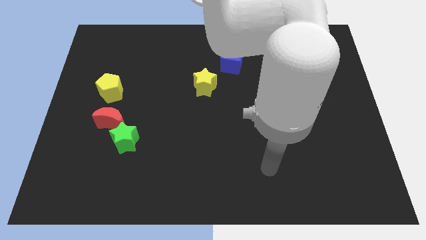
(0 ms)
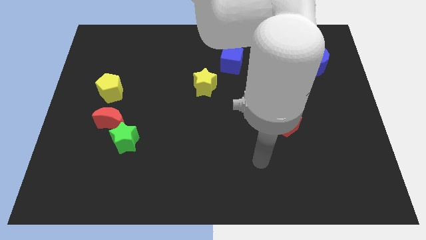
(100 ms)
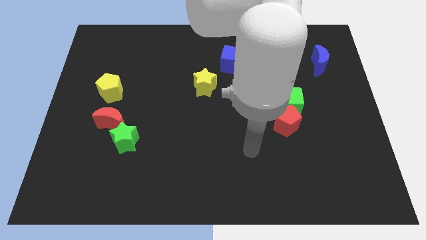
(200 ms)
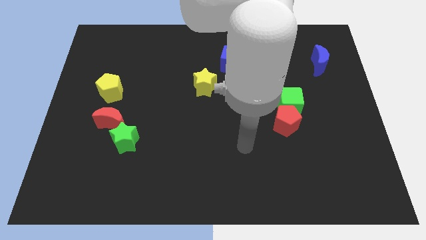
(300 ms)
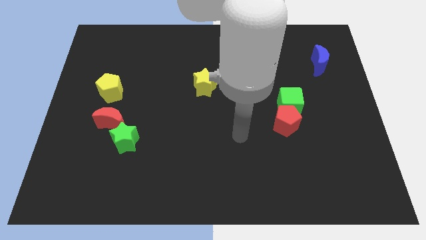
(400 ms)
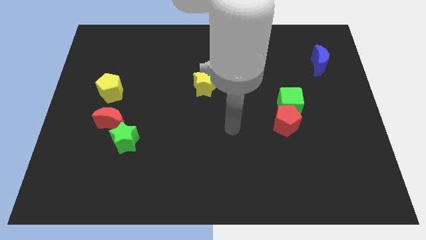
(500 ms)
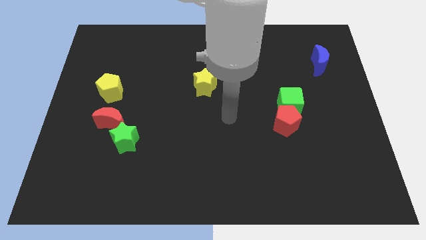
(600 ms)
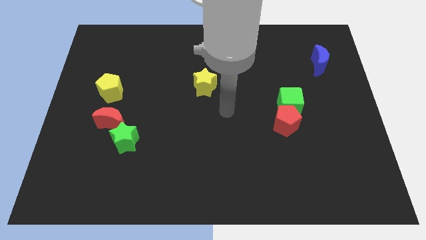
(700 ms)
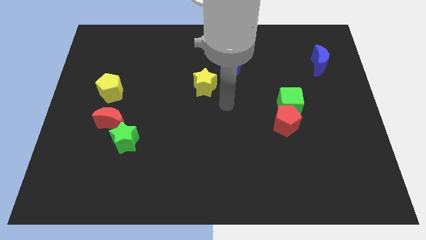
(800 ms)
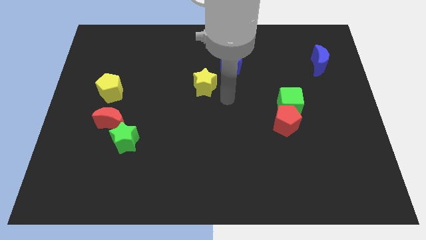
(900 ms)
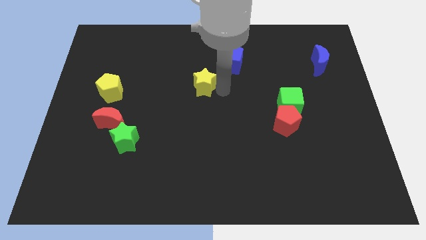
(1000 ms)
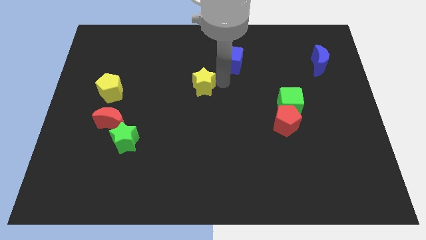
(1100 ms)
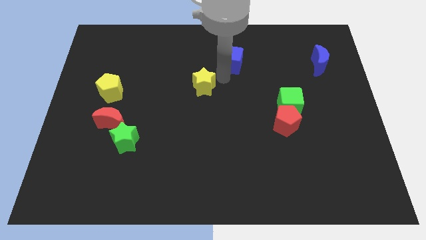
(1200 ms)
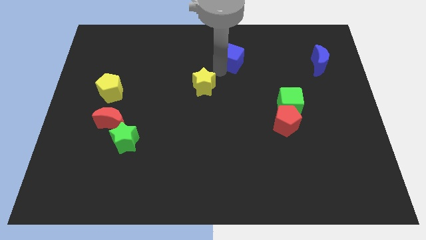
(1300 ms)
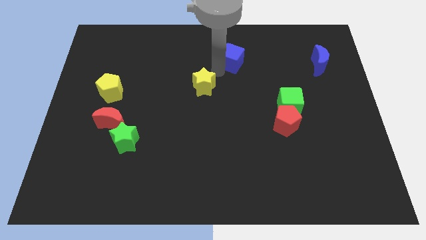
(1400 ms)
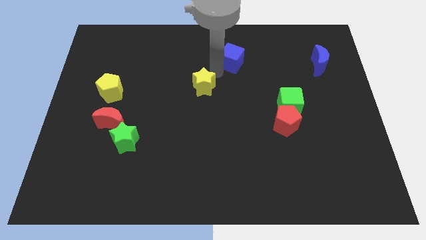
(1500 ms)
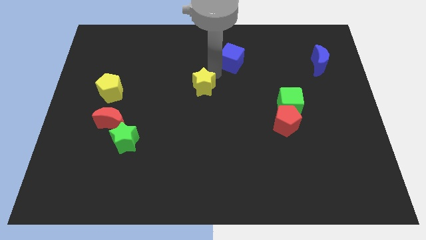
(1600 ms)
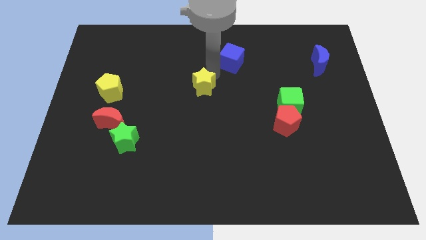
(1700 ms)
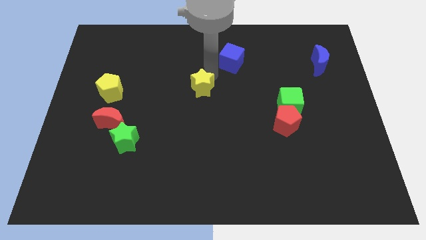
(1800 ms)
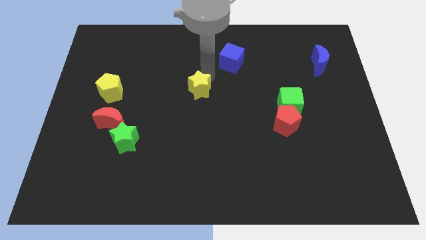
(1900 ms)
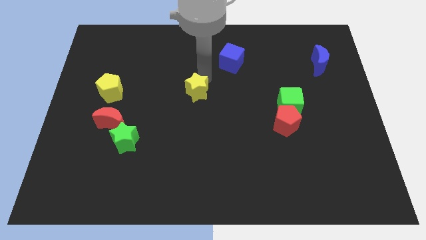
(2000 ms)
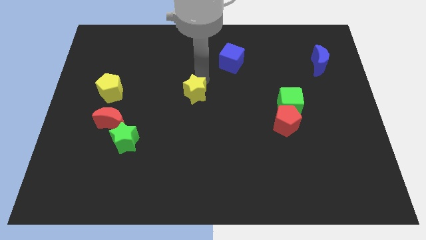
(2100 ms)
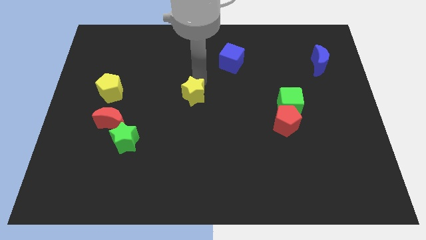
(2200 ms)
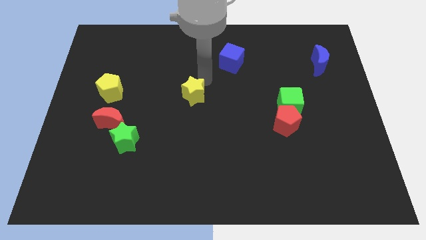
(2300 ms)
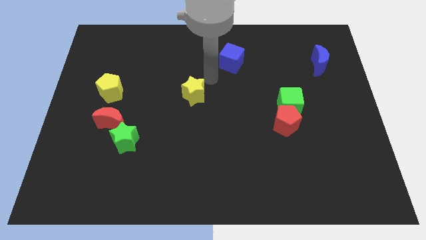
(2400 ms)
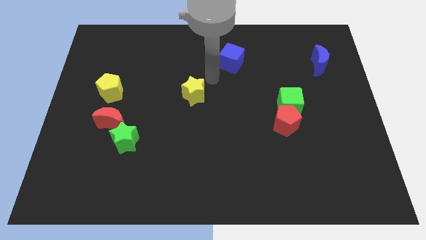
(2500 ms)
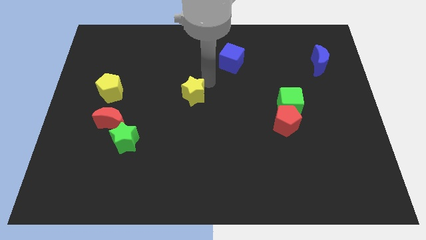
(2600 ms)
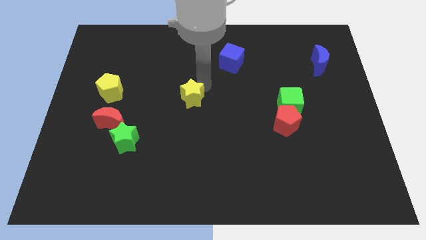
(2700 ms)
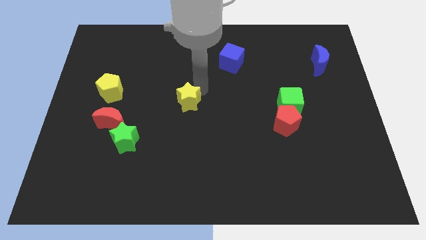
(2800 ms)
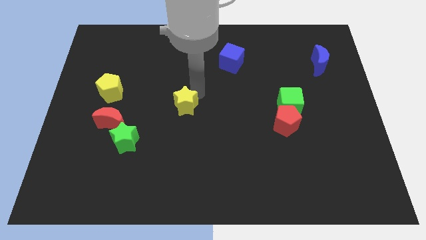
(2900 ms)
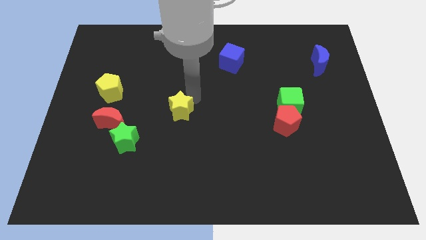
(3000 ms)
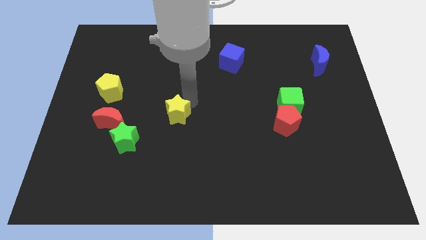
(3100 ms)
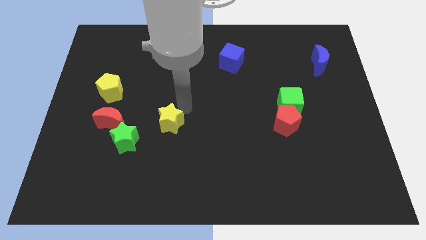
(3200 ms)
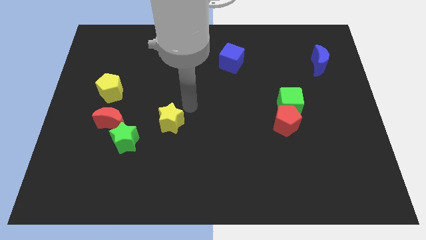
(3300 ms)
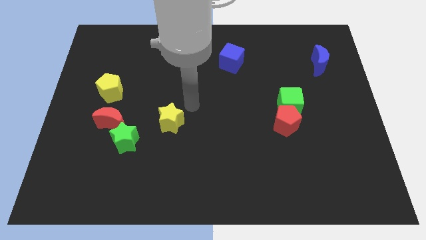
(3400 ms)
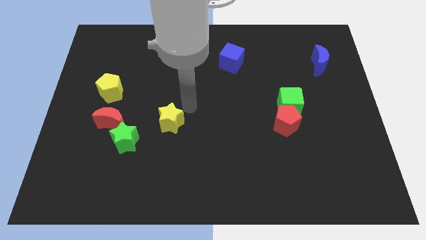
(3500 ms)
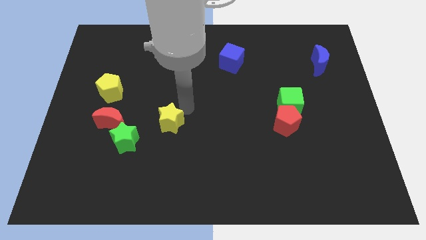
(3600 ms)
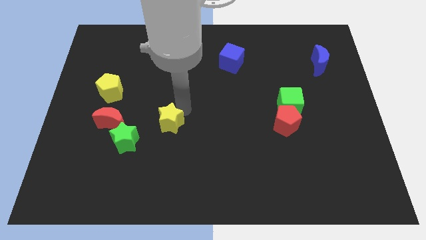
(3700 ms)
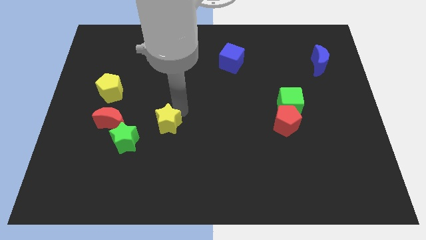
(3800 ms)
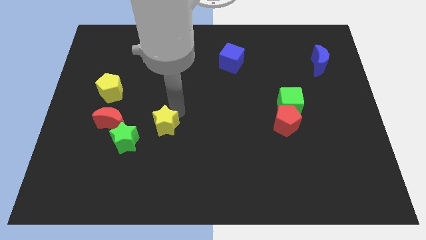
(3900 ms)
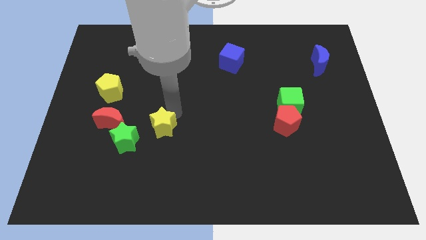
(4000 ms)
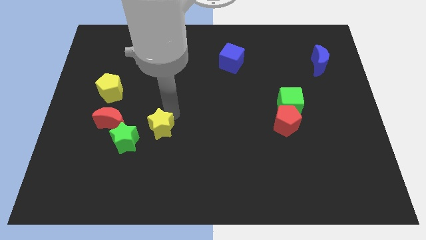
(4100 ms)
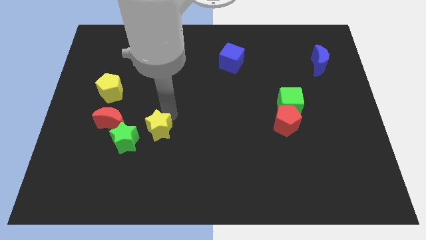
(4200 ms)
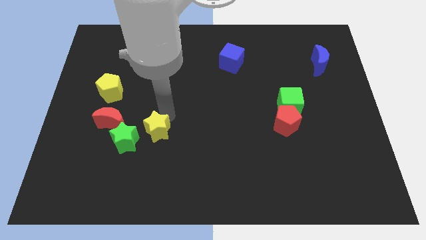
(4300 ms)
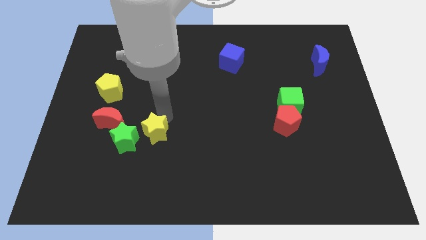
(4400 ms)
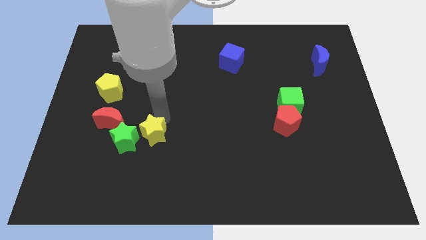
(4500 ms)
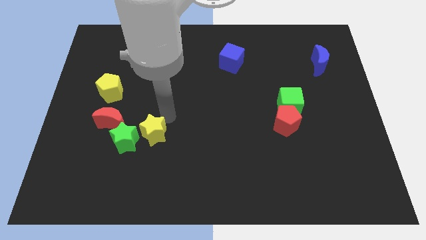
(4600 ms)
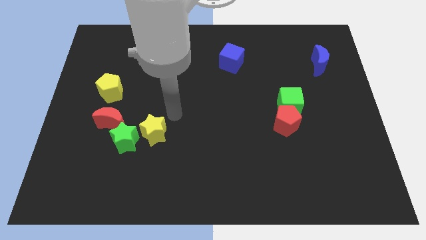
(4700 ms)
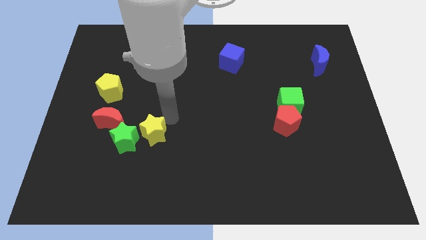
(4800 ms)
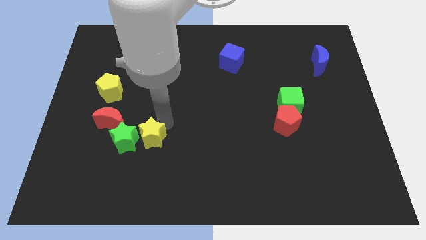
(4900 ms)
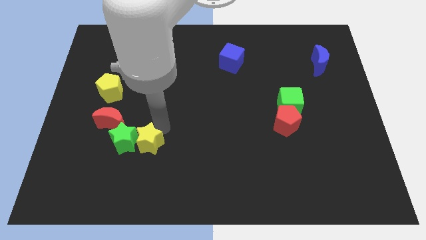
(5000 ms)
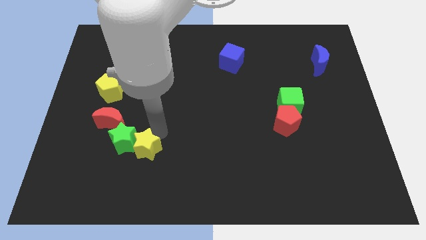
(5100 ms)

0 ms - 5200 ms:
move the yellow star diagonally down and to the left

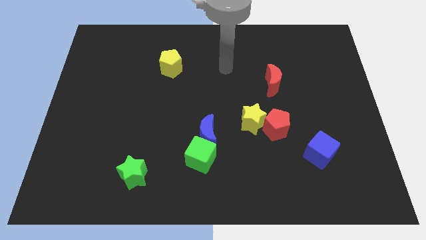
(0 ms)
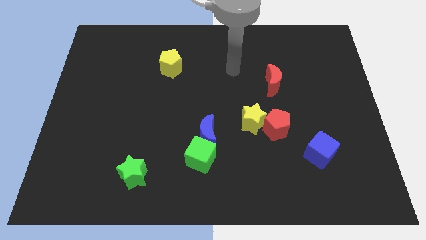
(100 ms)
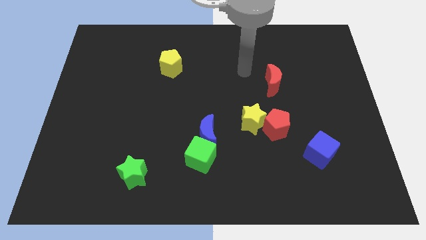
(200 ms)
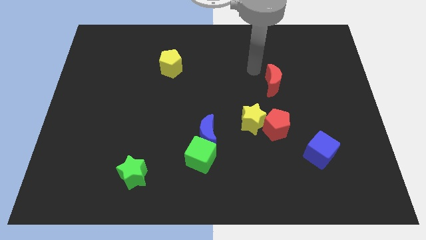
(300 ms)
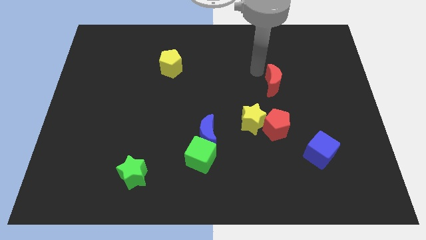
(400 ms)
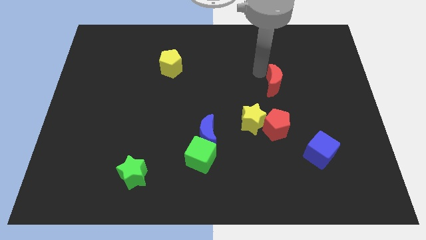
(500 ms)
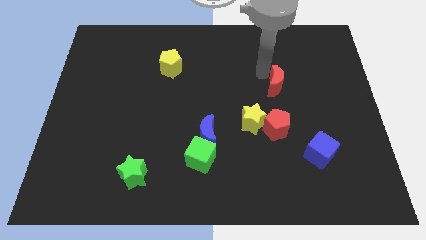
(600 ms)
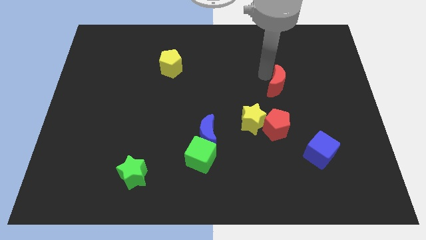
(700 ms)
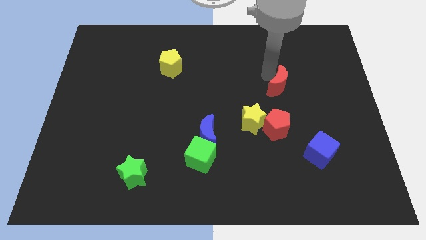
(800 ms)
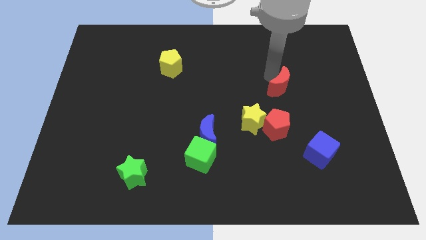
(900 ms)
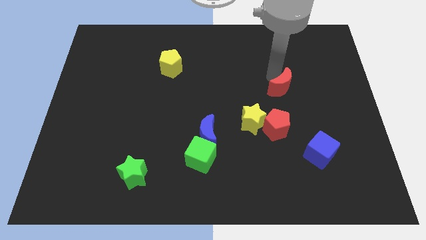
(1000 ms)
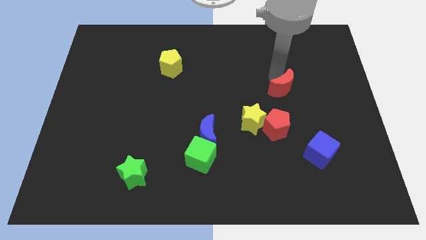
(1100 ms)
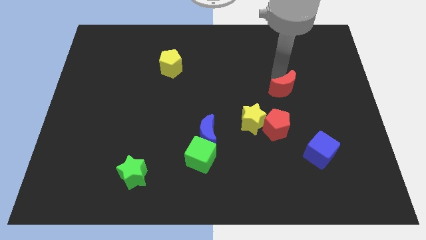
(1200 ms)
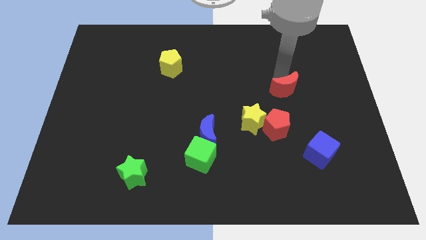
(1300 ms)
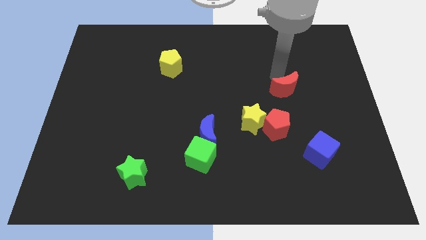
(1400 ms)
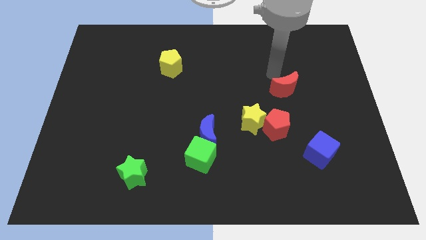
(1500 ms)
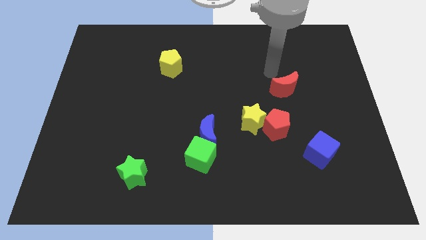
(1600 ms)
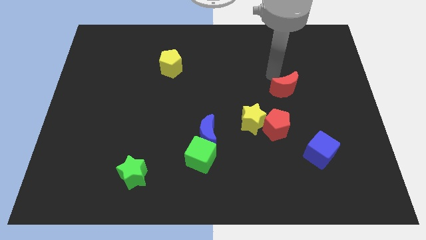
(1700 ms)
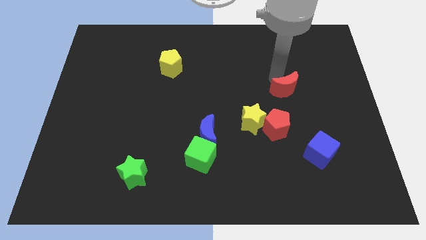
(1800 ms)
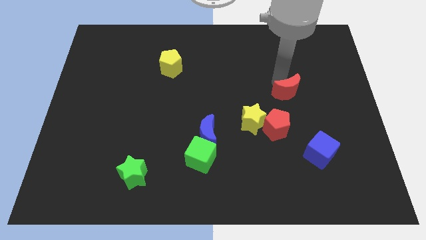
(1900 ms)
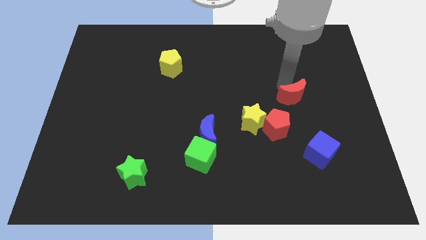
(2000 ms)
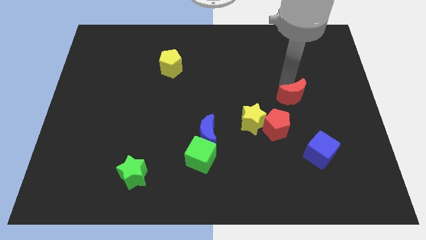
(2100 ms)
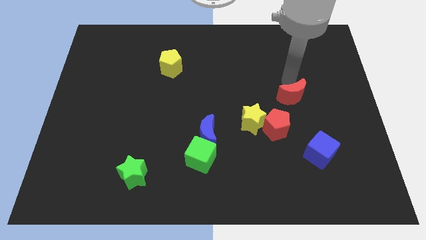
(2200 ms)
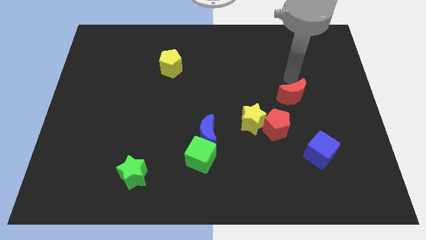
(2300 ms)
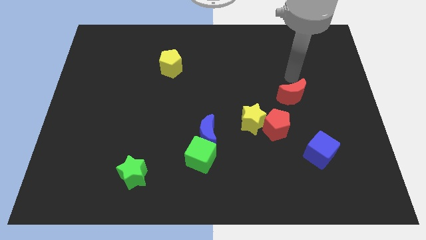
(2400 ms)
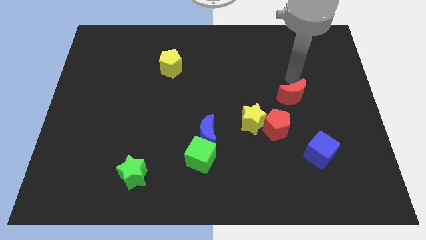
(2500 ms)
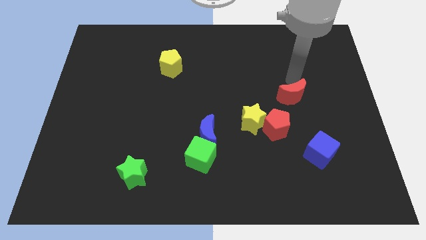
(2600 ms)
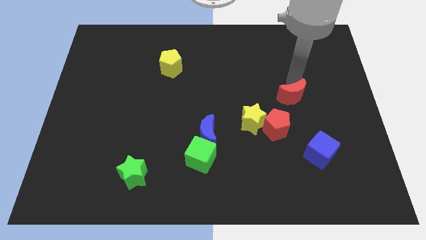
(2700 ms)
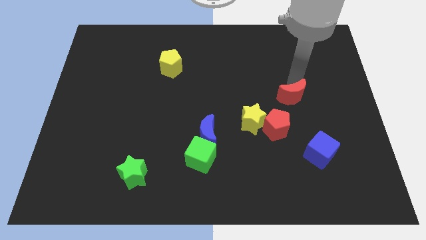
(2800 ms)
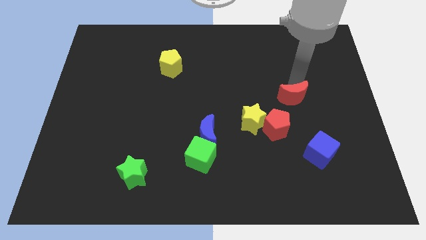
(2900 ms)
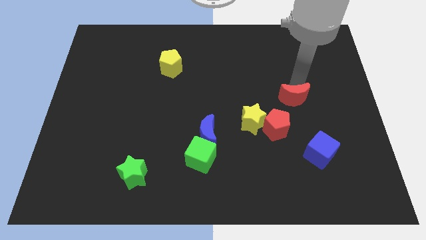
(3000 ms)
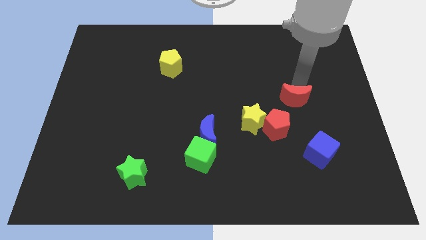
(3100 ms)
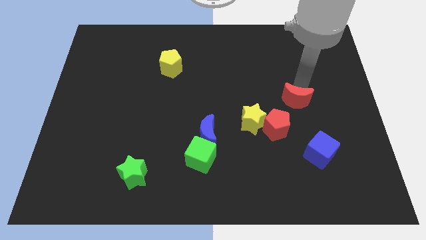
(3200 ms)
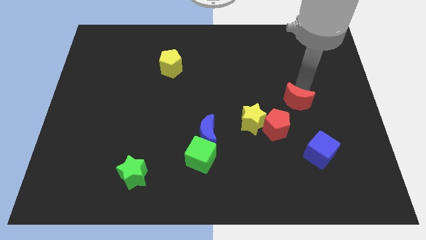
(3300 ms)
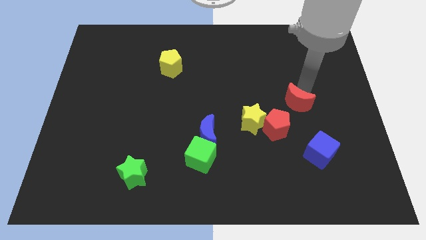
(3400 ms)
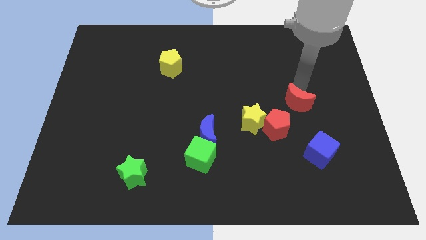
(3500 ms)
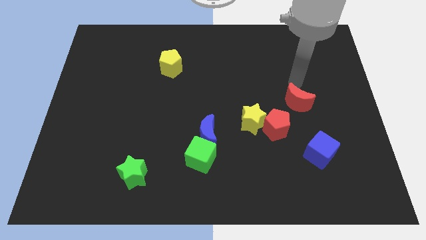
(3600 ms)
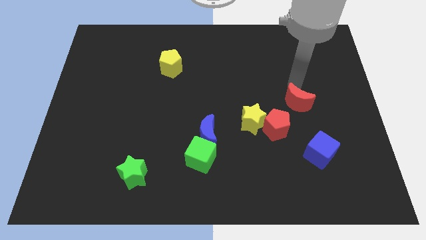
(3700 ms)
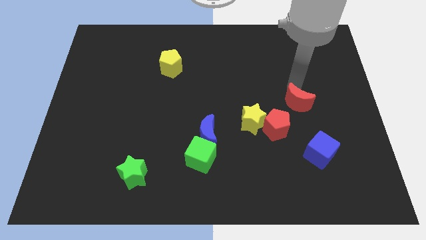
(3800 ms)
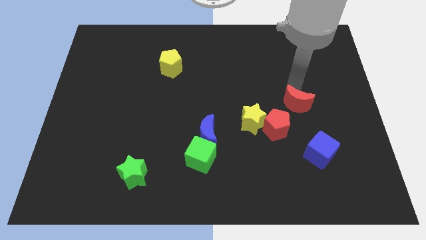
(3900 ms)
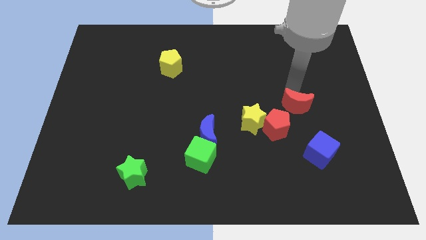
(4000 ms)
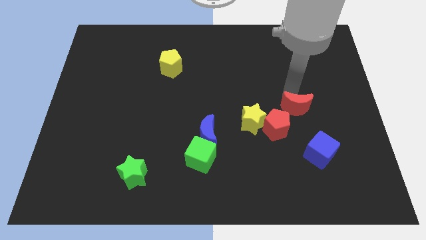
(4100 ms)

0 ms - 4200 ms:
slide the red moon downwards a bit
